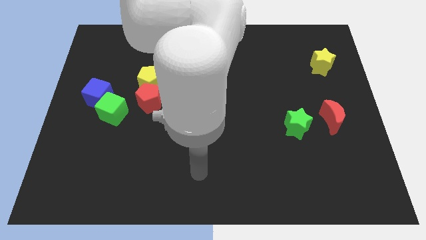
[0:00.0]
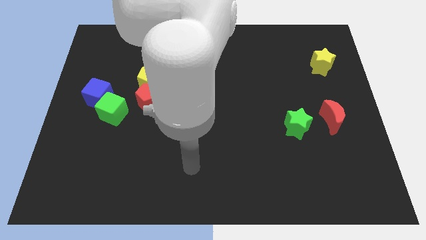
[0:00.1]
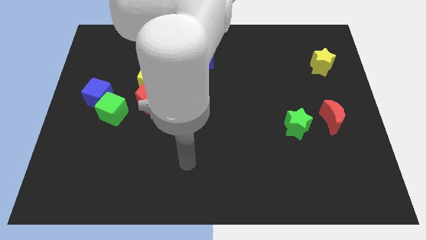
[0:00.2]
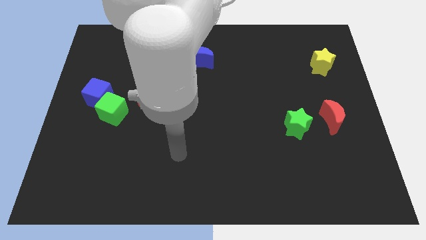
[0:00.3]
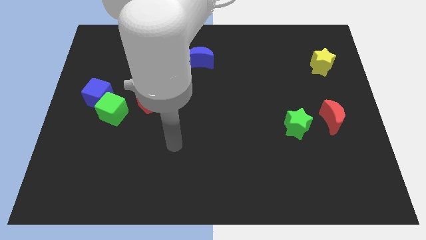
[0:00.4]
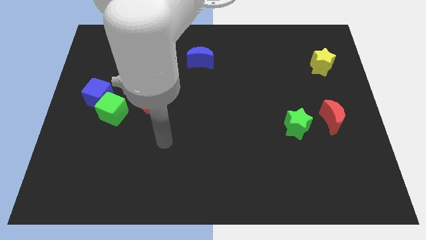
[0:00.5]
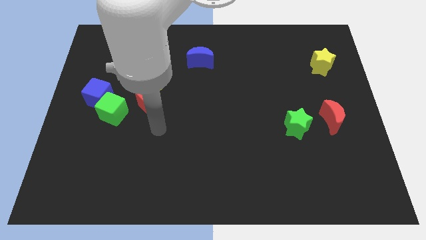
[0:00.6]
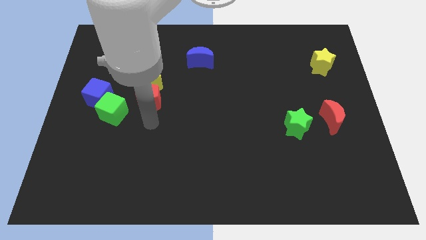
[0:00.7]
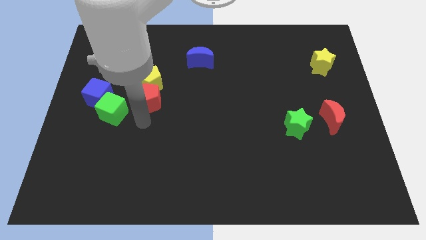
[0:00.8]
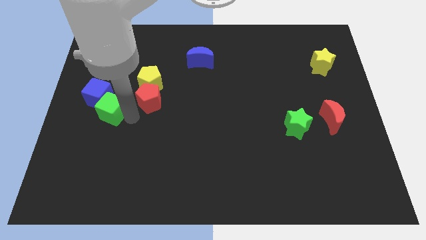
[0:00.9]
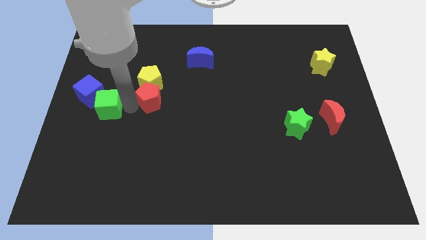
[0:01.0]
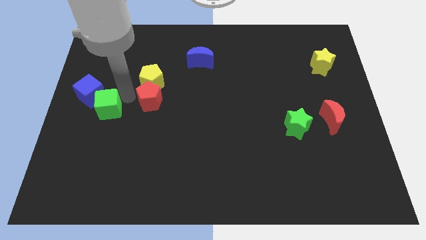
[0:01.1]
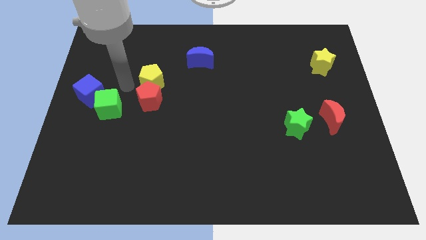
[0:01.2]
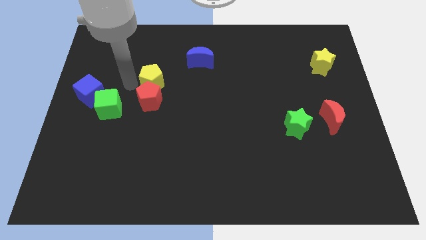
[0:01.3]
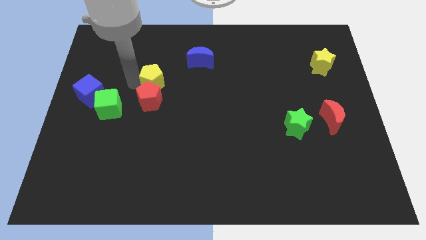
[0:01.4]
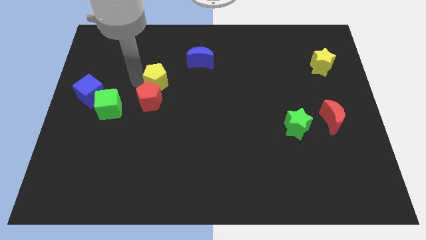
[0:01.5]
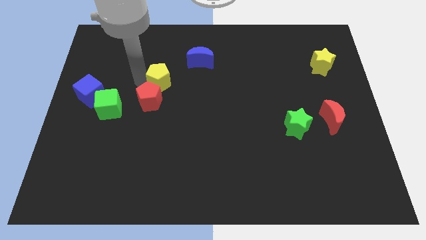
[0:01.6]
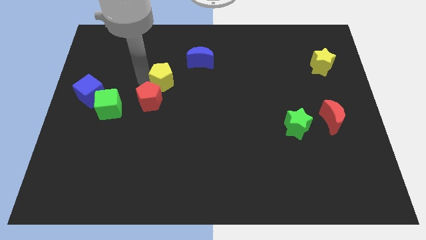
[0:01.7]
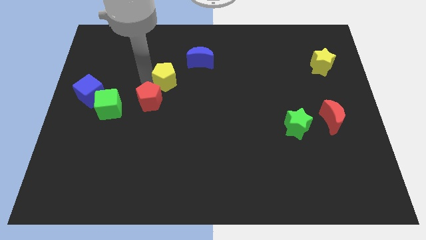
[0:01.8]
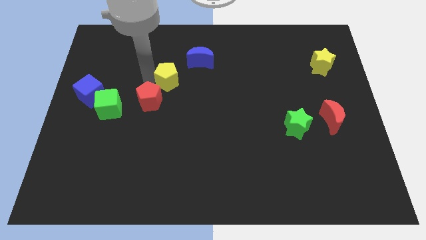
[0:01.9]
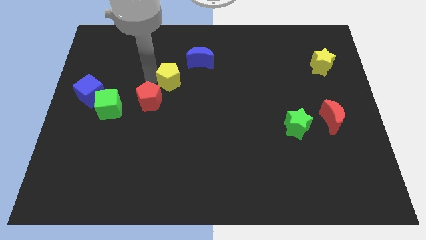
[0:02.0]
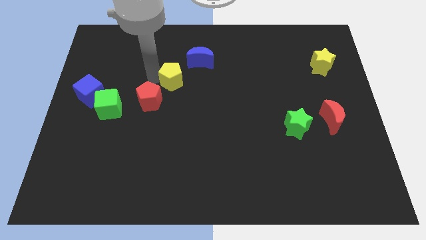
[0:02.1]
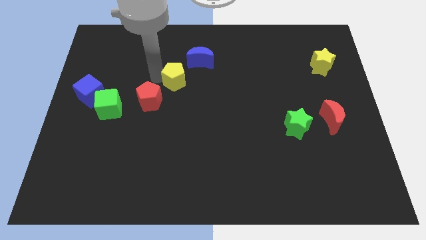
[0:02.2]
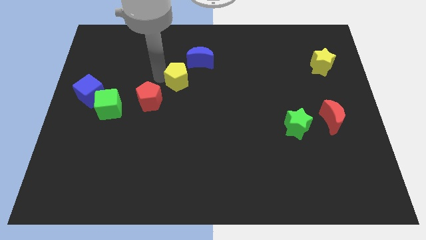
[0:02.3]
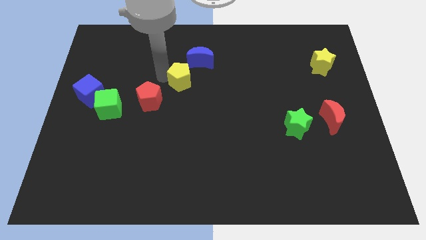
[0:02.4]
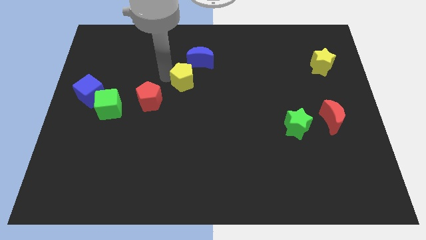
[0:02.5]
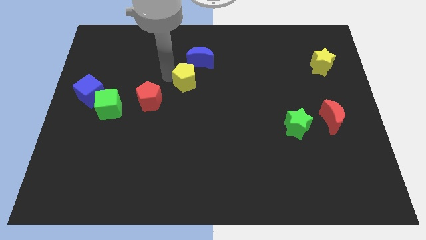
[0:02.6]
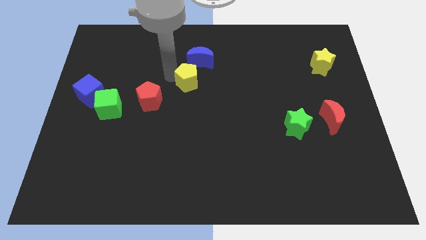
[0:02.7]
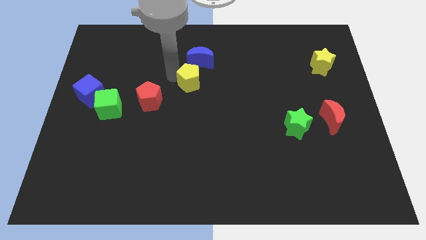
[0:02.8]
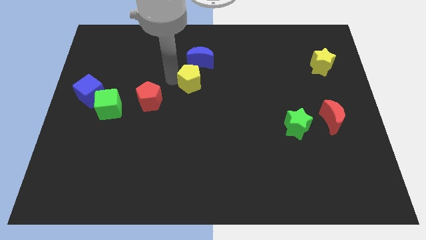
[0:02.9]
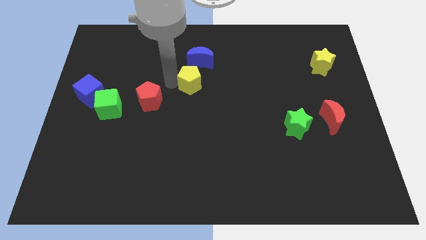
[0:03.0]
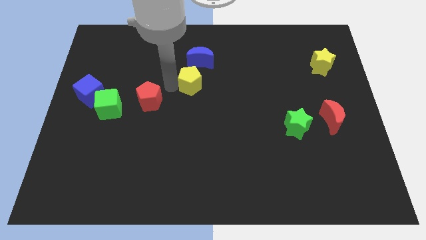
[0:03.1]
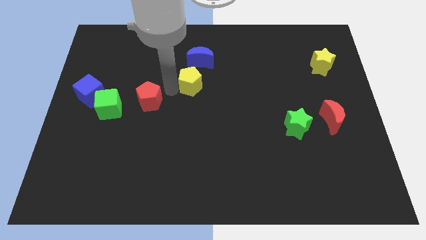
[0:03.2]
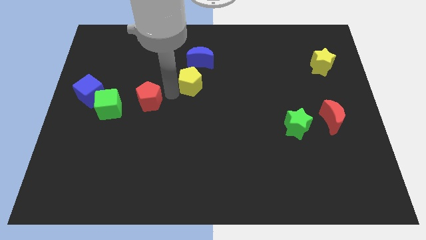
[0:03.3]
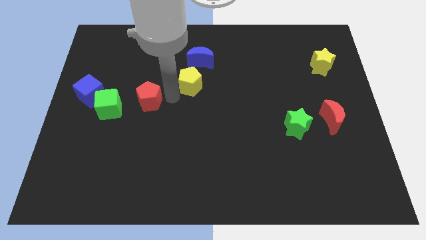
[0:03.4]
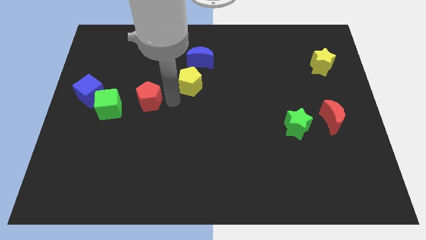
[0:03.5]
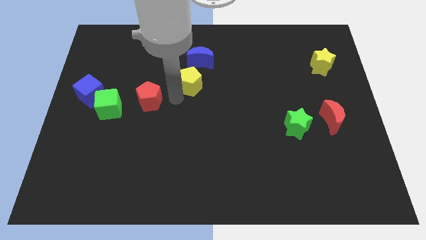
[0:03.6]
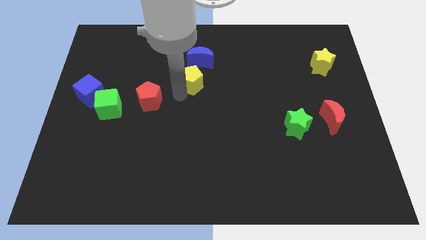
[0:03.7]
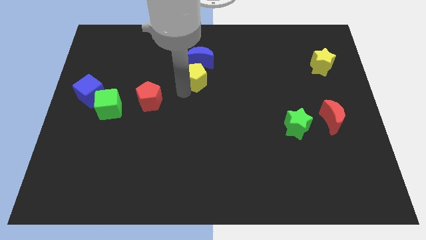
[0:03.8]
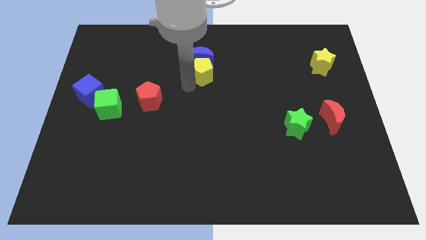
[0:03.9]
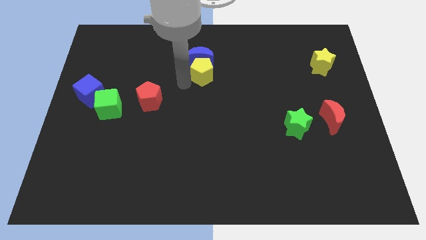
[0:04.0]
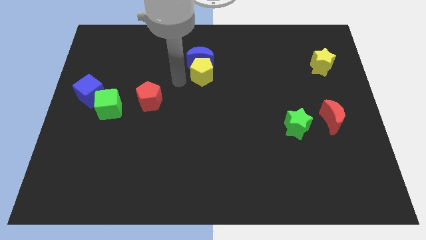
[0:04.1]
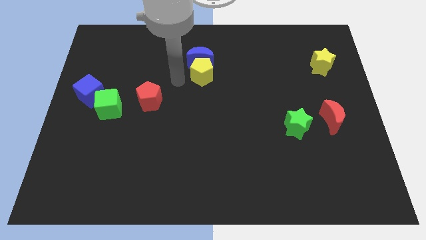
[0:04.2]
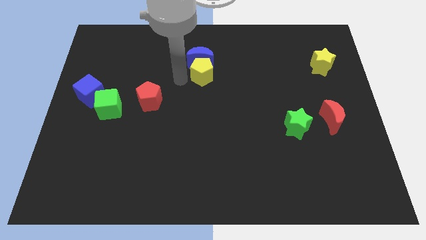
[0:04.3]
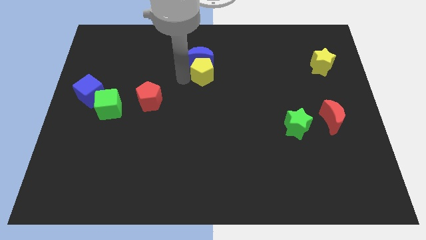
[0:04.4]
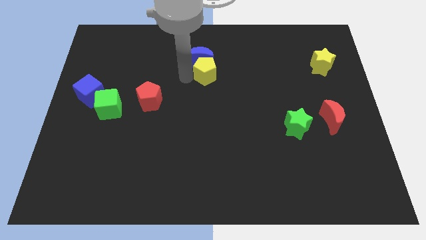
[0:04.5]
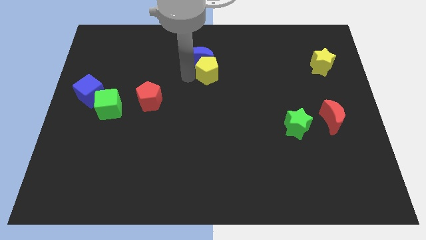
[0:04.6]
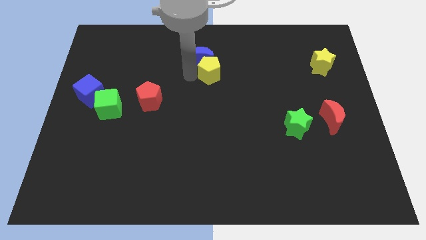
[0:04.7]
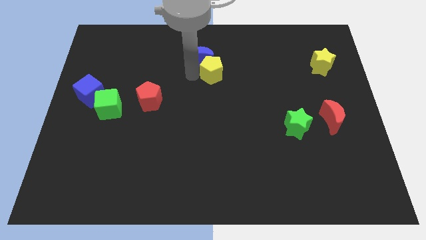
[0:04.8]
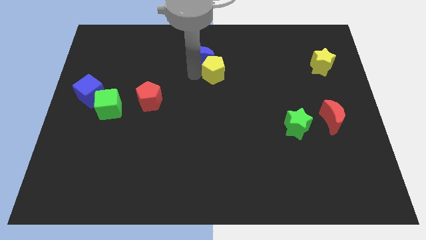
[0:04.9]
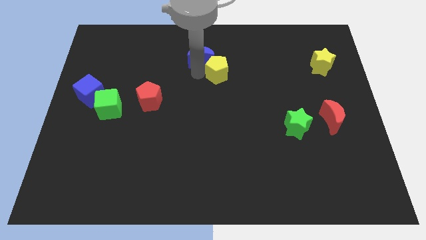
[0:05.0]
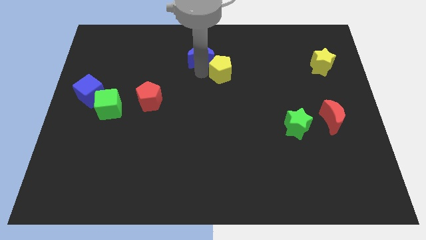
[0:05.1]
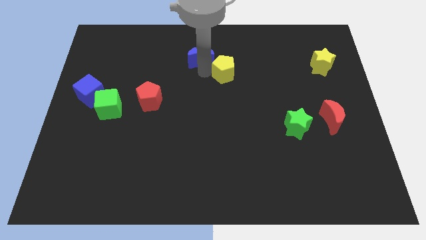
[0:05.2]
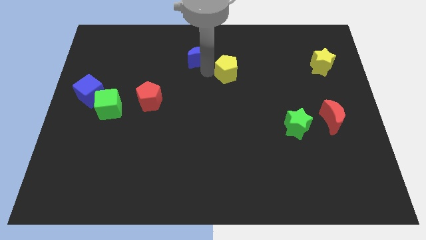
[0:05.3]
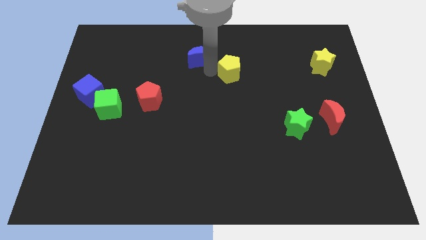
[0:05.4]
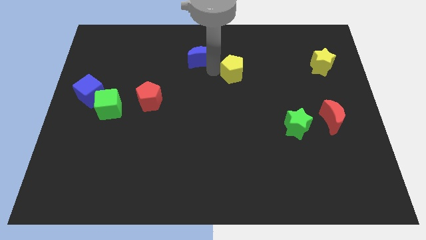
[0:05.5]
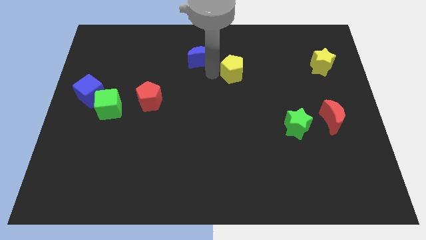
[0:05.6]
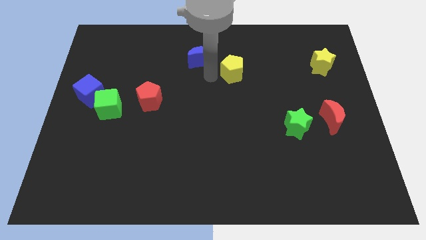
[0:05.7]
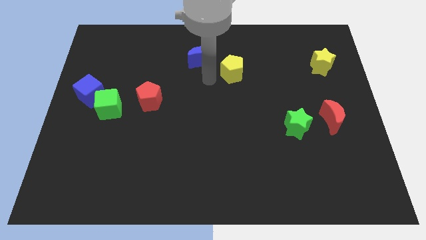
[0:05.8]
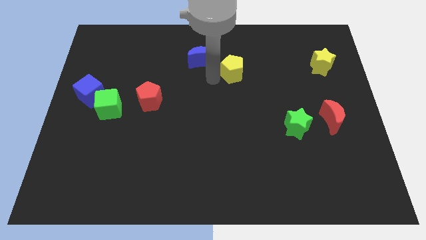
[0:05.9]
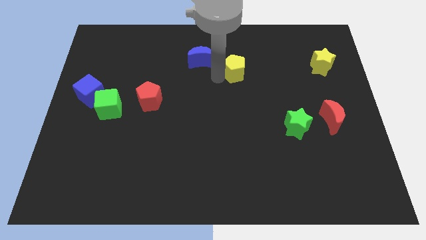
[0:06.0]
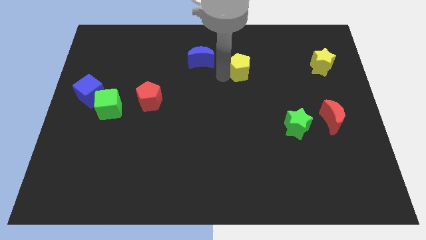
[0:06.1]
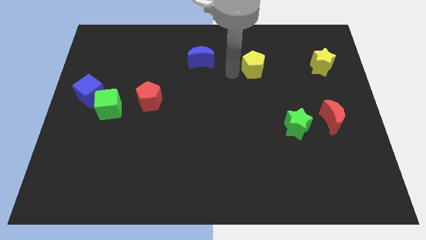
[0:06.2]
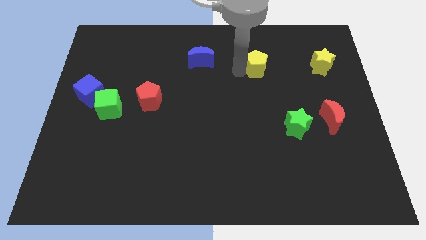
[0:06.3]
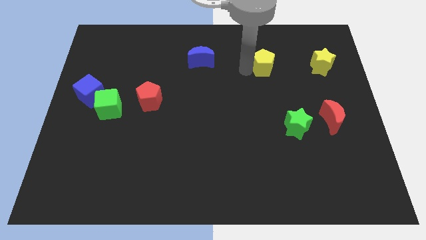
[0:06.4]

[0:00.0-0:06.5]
slide the yellow pentagon to the left side of the yellow star

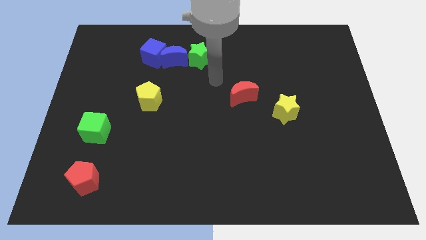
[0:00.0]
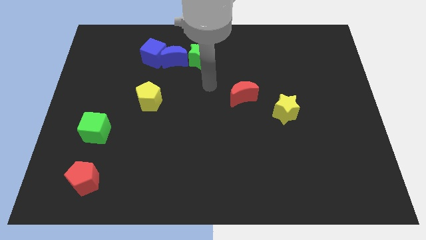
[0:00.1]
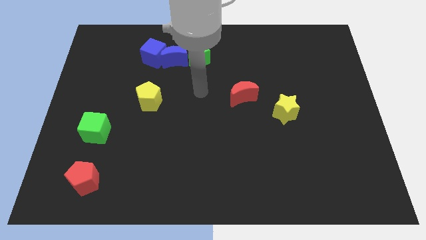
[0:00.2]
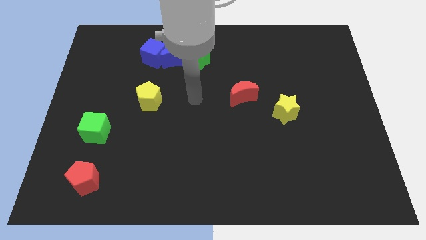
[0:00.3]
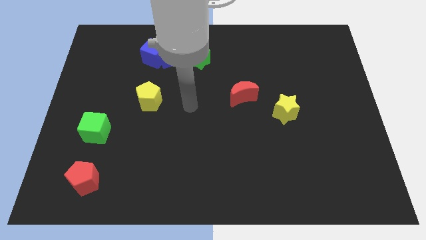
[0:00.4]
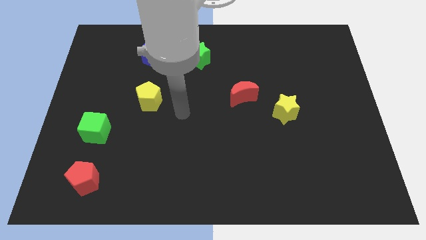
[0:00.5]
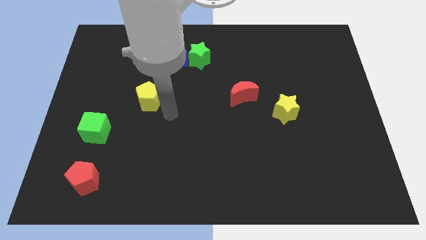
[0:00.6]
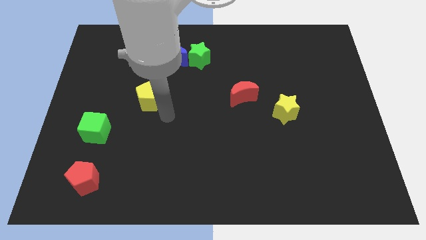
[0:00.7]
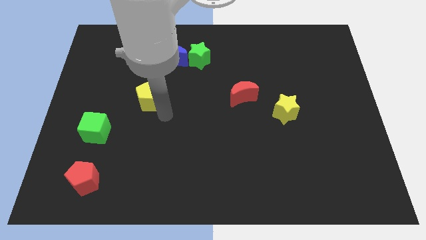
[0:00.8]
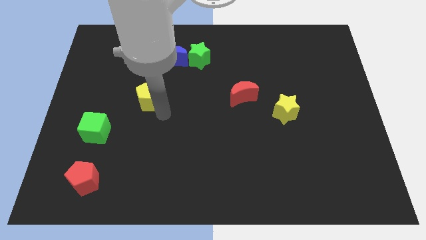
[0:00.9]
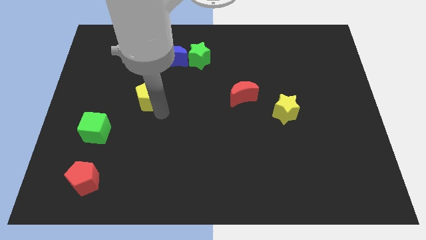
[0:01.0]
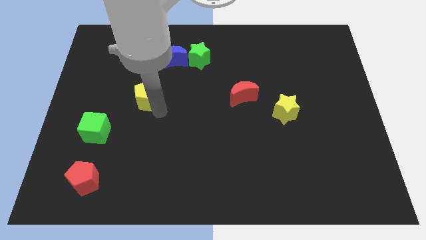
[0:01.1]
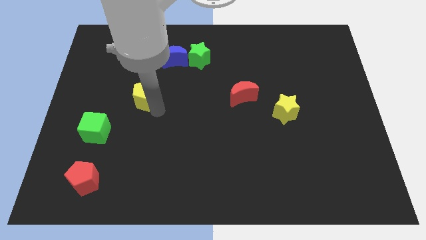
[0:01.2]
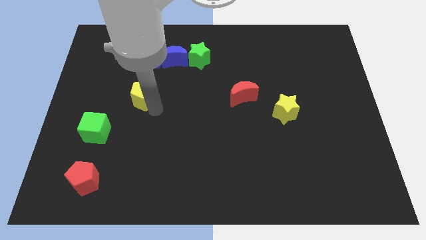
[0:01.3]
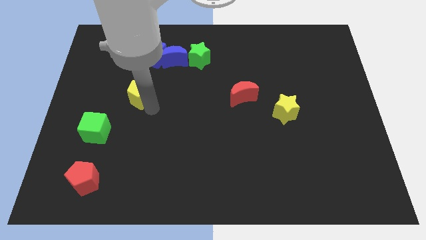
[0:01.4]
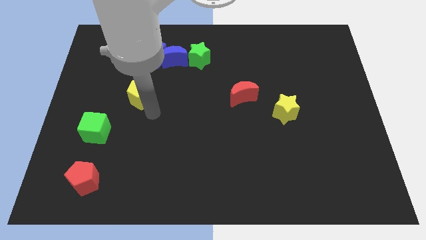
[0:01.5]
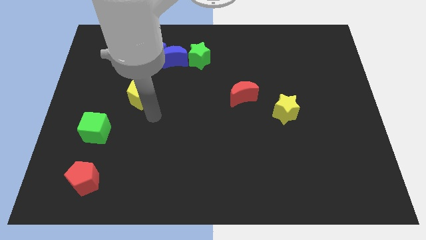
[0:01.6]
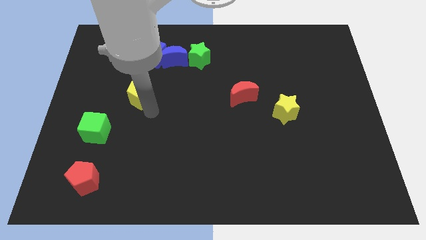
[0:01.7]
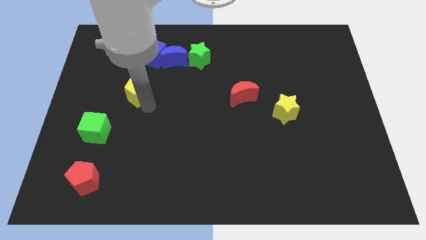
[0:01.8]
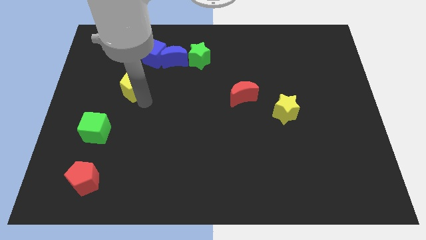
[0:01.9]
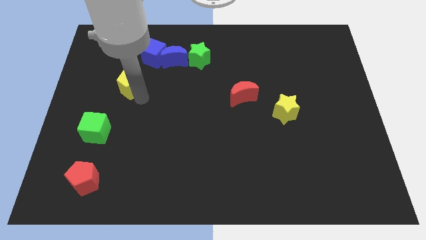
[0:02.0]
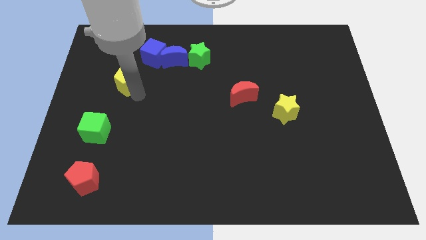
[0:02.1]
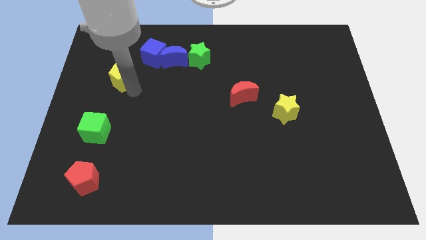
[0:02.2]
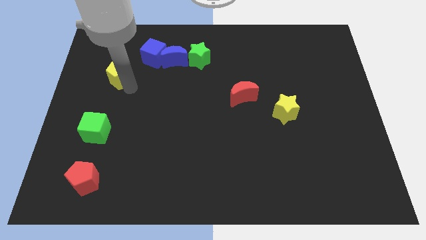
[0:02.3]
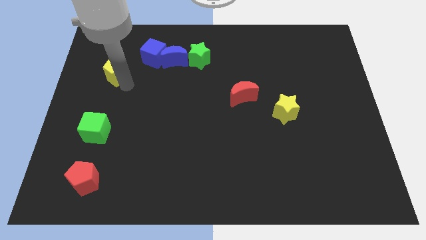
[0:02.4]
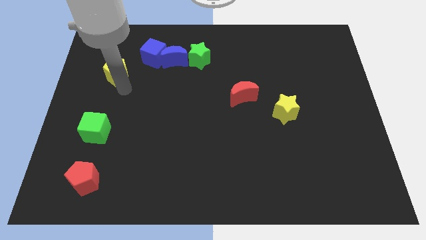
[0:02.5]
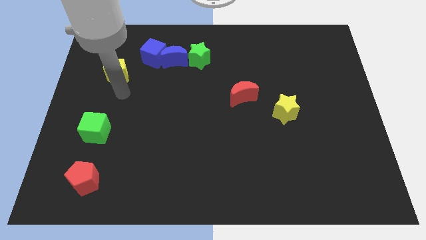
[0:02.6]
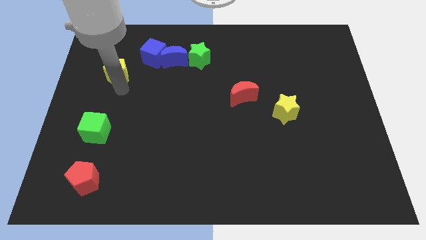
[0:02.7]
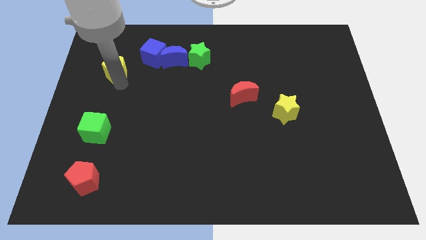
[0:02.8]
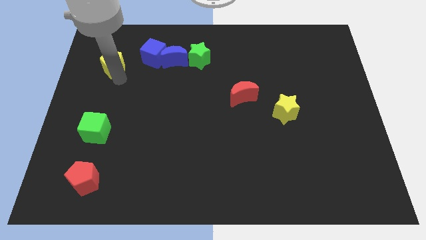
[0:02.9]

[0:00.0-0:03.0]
move the yellow pentagon left of the blue cube
